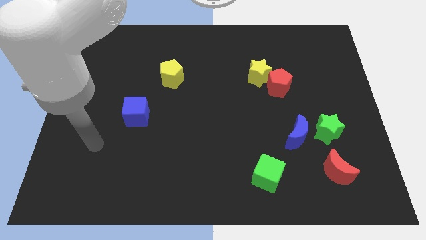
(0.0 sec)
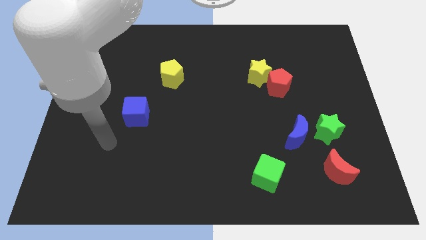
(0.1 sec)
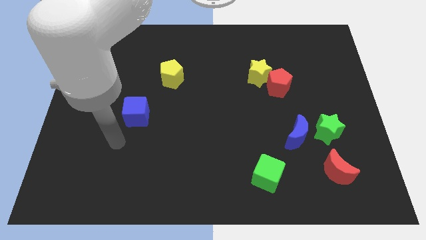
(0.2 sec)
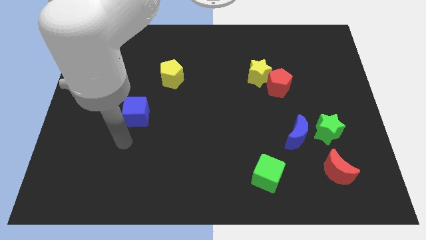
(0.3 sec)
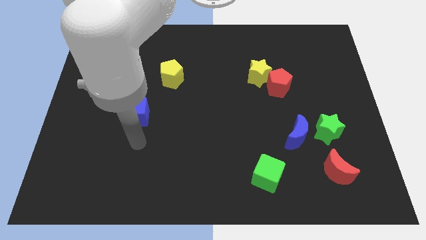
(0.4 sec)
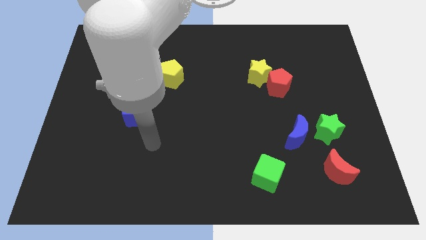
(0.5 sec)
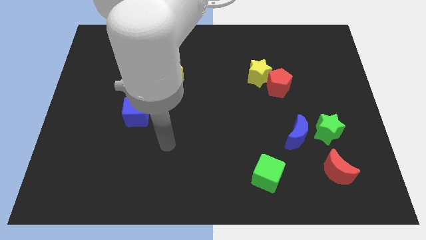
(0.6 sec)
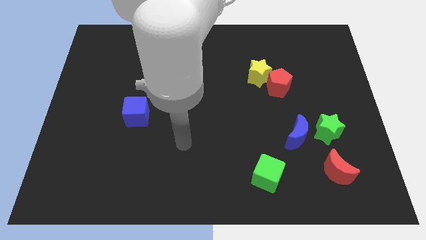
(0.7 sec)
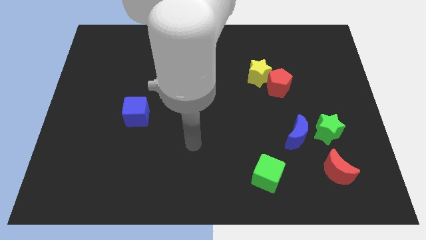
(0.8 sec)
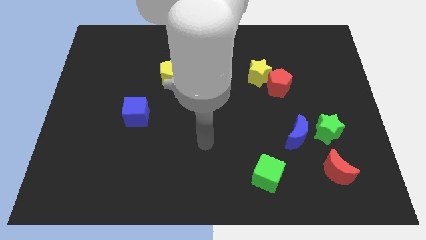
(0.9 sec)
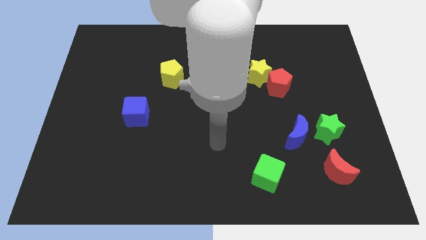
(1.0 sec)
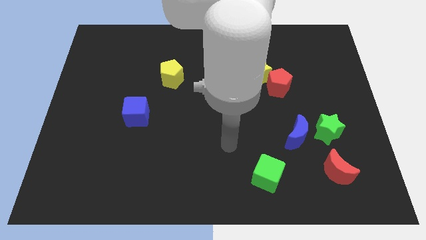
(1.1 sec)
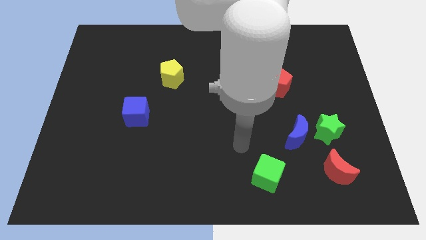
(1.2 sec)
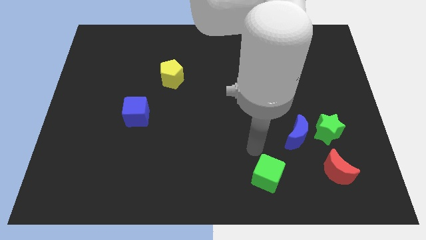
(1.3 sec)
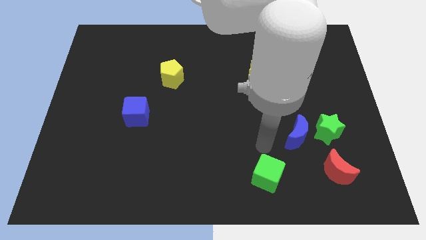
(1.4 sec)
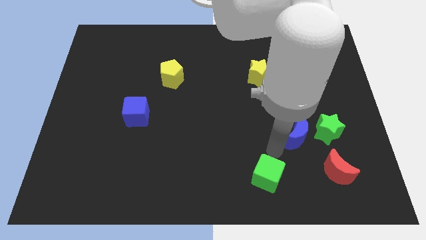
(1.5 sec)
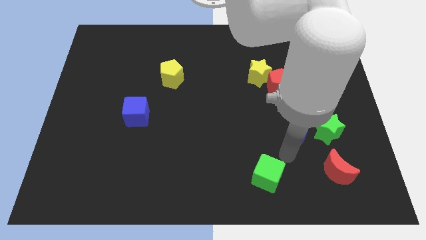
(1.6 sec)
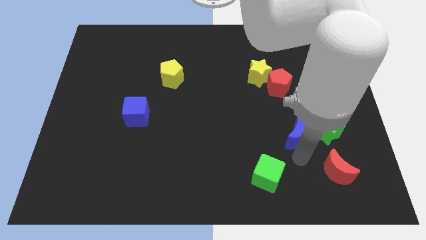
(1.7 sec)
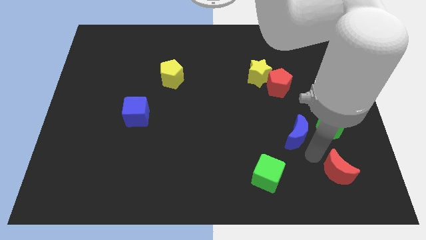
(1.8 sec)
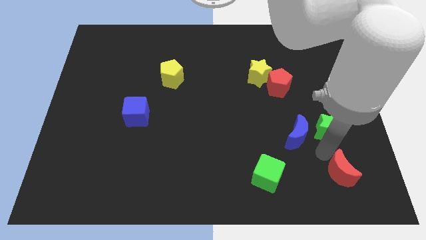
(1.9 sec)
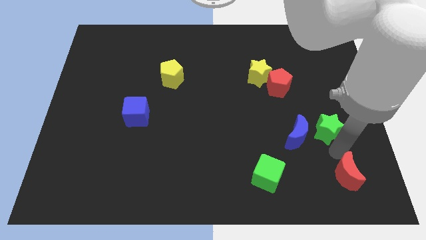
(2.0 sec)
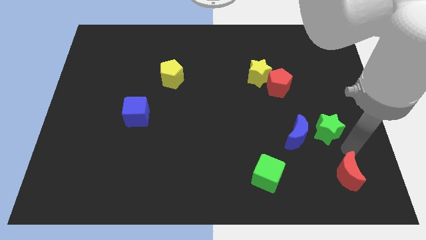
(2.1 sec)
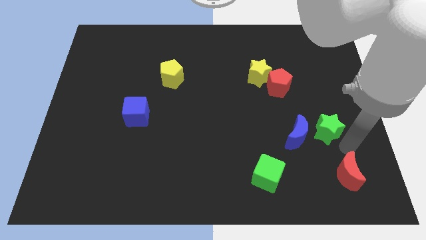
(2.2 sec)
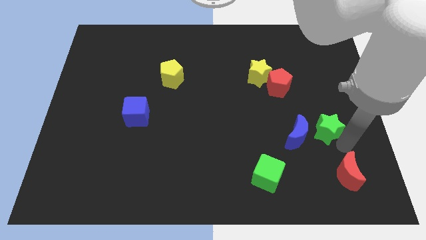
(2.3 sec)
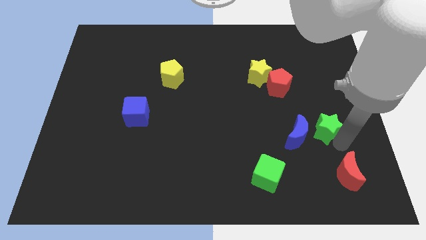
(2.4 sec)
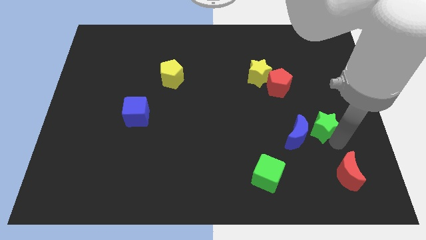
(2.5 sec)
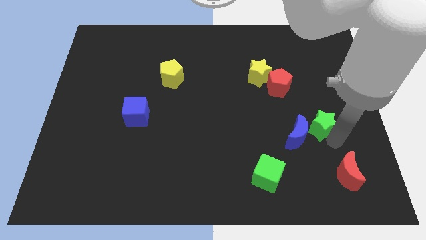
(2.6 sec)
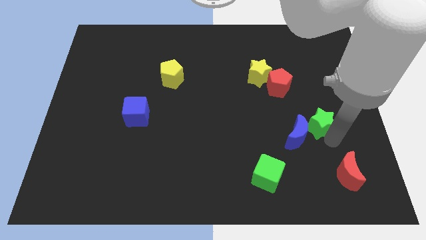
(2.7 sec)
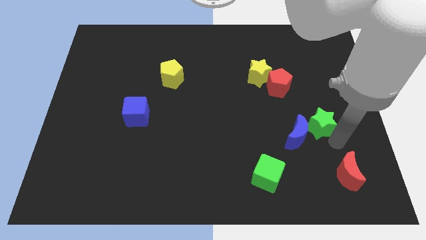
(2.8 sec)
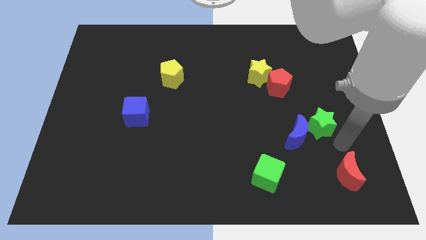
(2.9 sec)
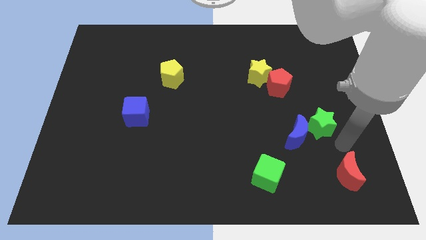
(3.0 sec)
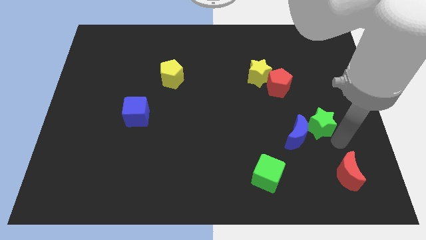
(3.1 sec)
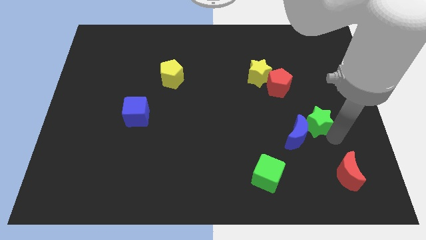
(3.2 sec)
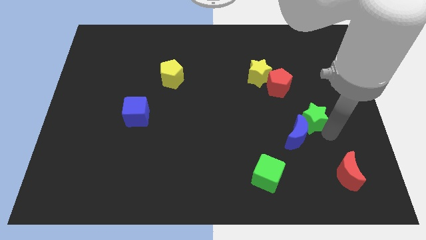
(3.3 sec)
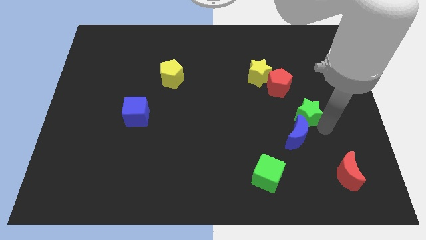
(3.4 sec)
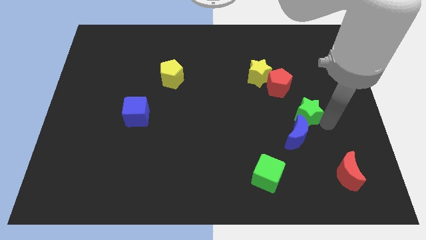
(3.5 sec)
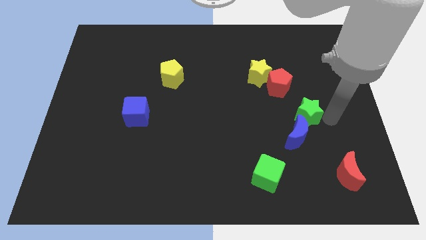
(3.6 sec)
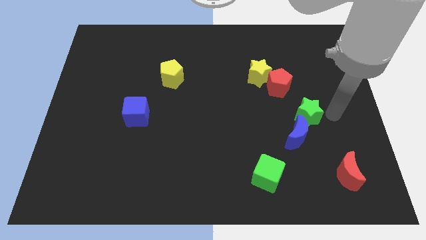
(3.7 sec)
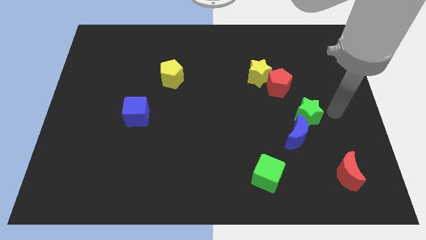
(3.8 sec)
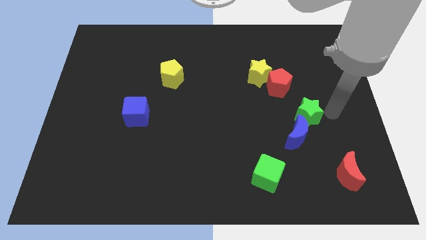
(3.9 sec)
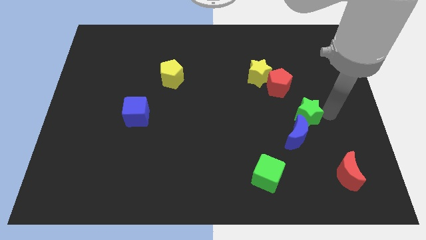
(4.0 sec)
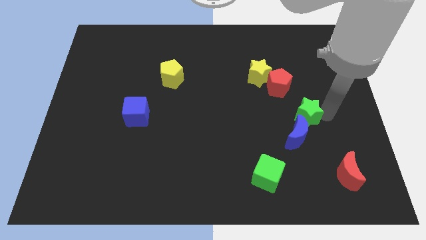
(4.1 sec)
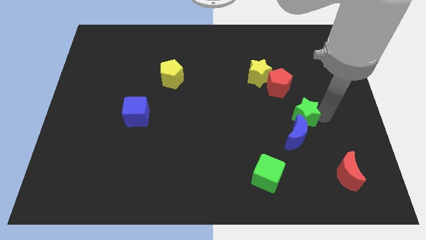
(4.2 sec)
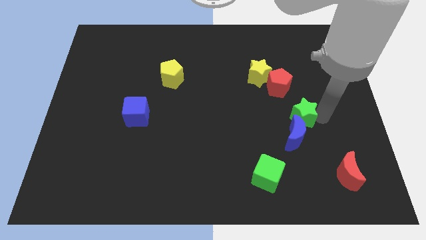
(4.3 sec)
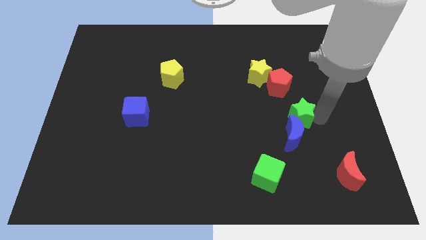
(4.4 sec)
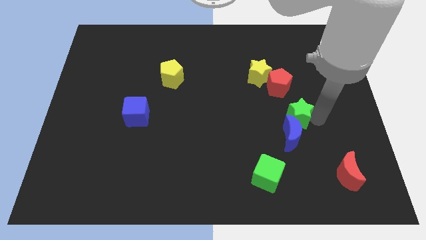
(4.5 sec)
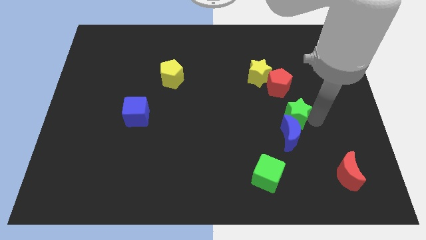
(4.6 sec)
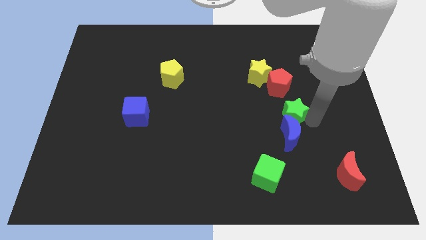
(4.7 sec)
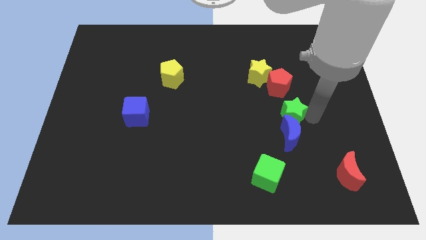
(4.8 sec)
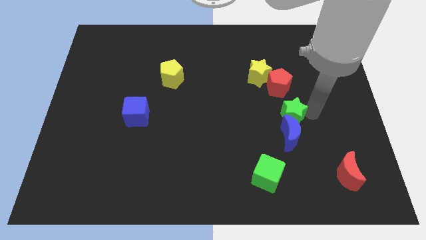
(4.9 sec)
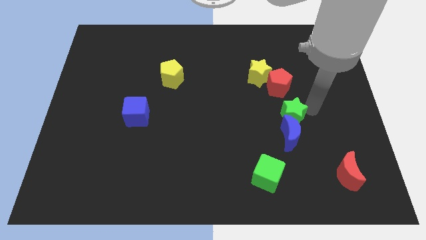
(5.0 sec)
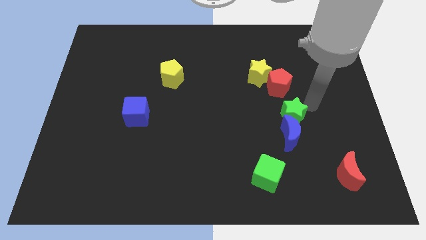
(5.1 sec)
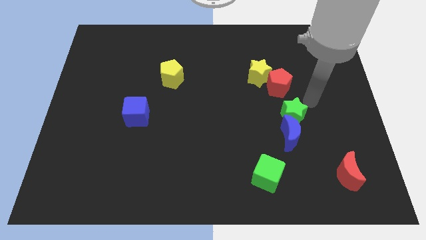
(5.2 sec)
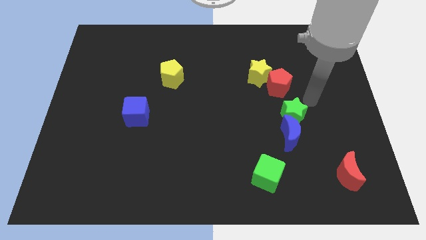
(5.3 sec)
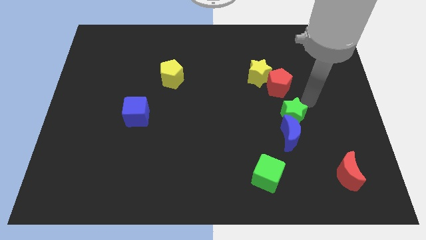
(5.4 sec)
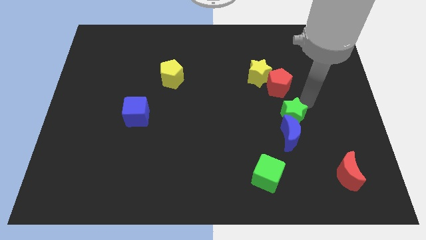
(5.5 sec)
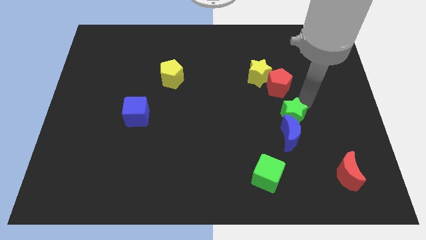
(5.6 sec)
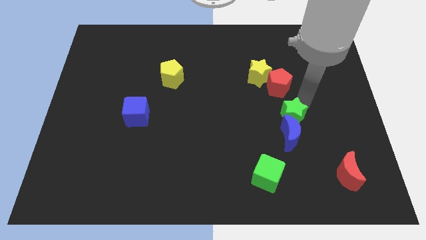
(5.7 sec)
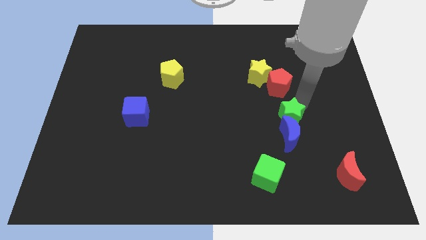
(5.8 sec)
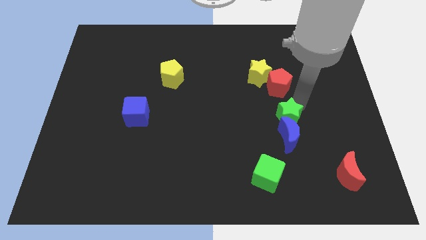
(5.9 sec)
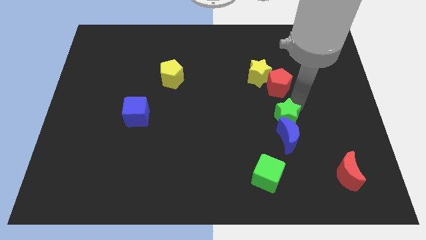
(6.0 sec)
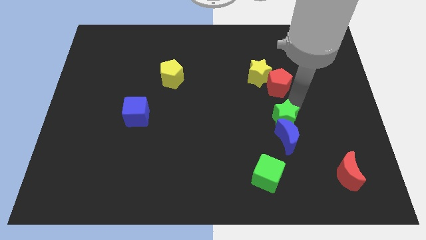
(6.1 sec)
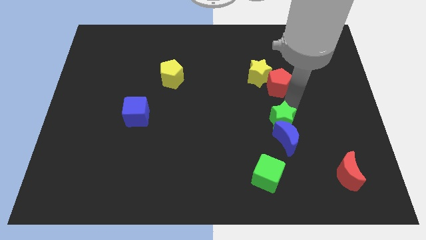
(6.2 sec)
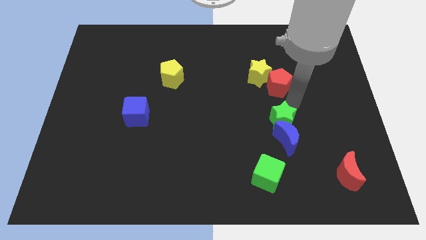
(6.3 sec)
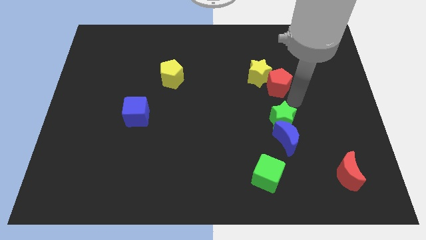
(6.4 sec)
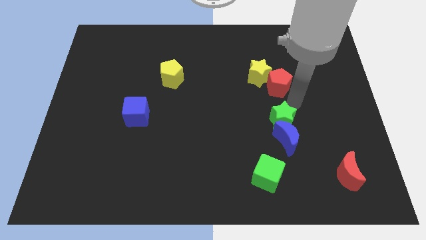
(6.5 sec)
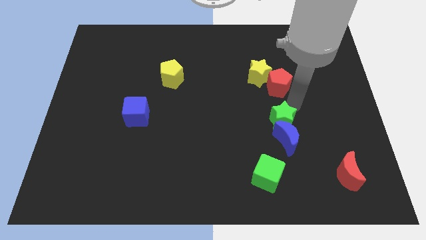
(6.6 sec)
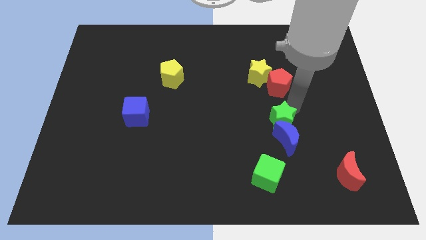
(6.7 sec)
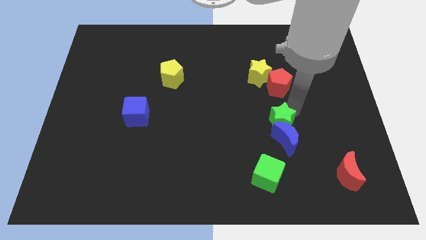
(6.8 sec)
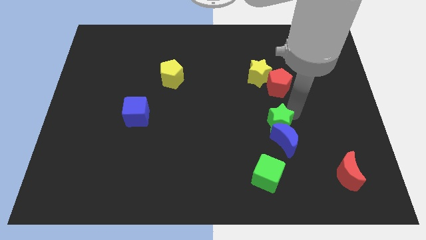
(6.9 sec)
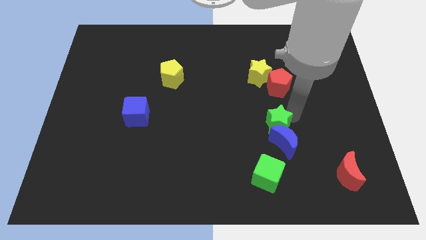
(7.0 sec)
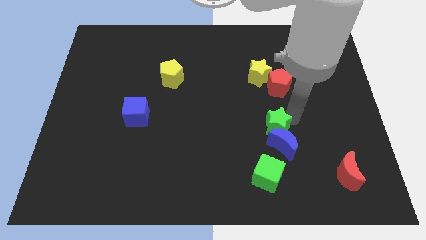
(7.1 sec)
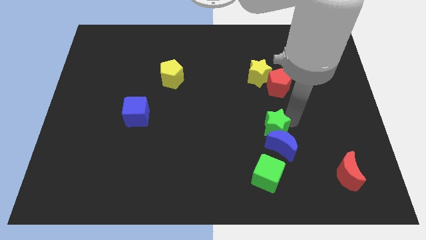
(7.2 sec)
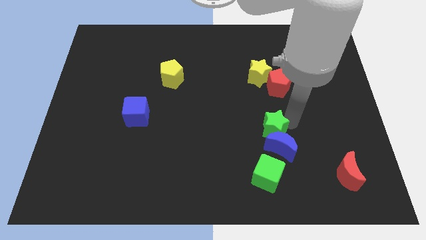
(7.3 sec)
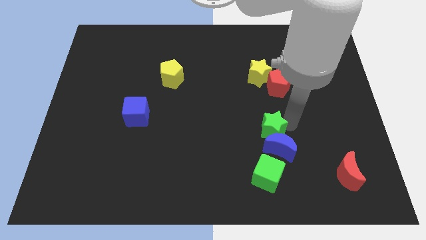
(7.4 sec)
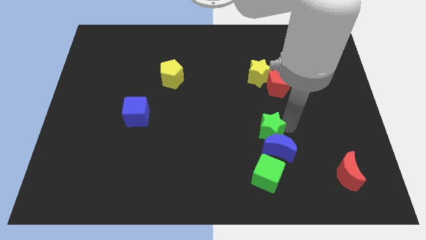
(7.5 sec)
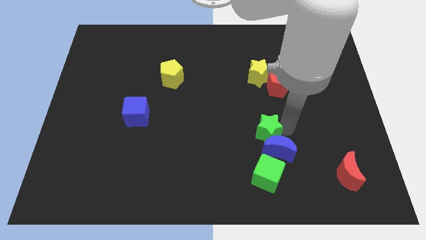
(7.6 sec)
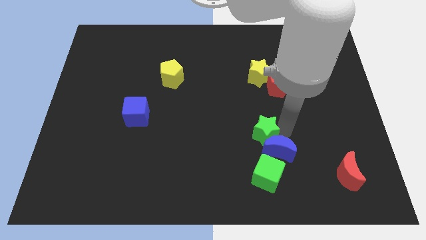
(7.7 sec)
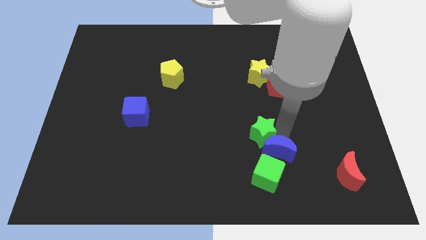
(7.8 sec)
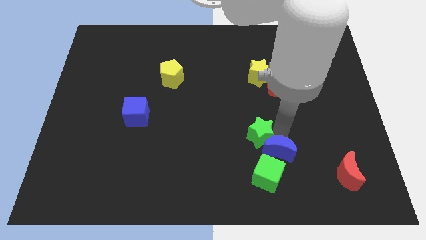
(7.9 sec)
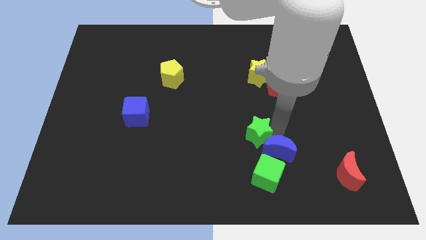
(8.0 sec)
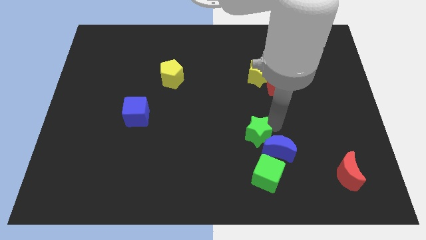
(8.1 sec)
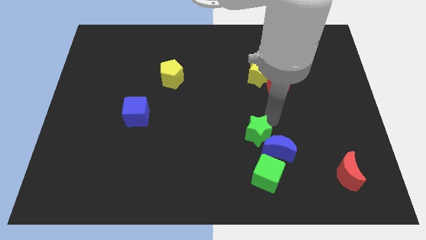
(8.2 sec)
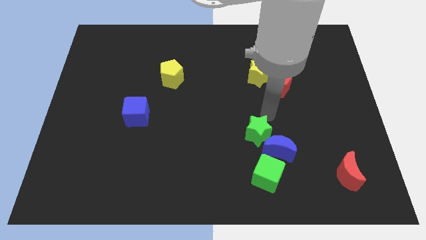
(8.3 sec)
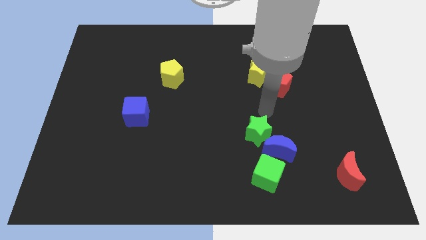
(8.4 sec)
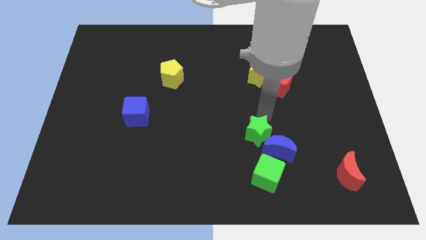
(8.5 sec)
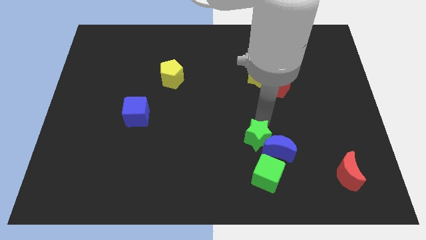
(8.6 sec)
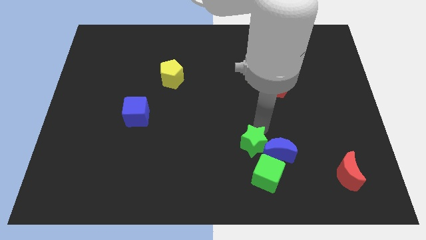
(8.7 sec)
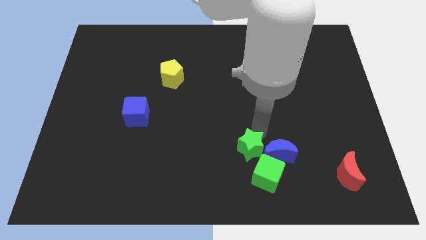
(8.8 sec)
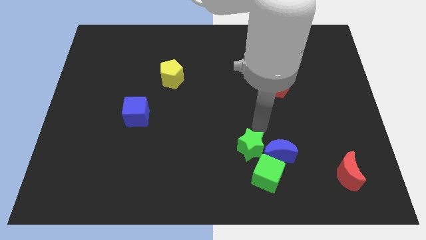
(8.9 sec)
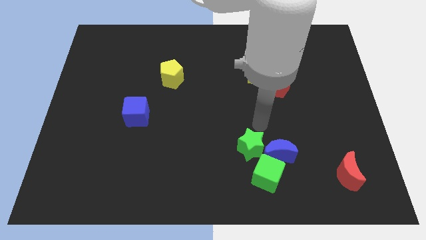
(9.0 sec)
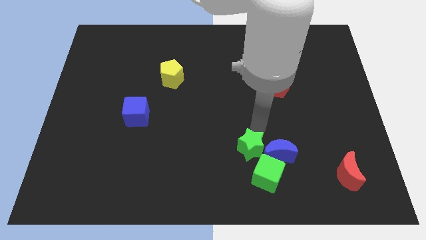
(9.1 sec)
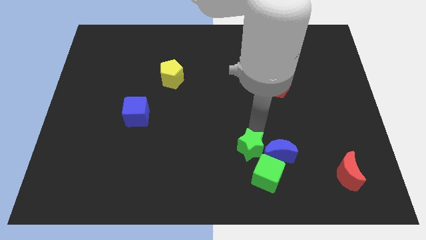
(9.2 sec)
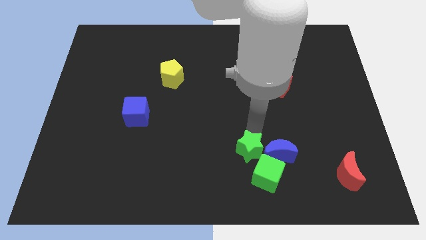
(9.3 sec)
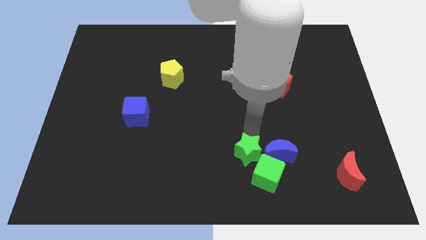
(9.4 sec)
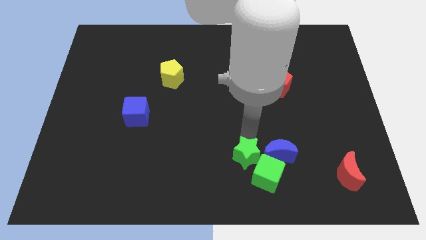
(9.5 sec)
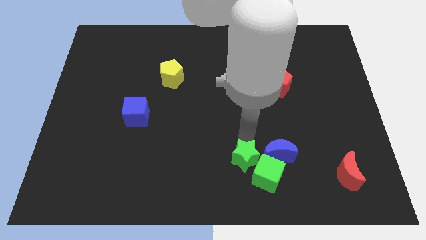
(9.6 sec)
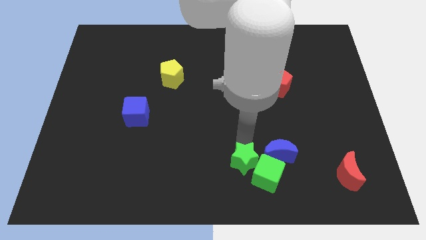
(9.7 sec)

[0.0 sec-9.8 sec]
put the green star to the bottom
